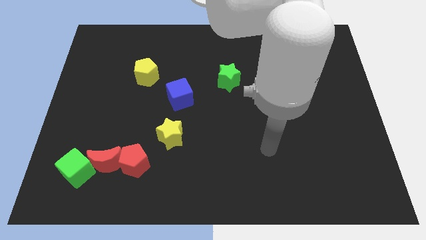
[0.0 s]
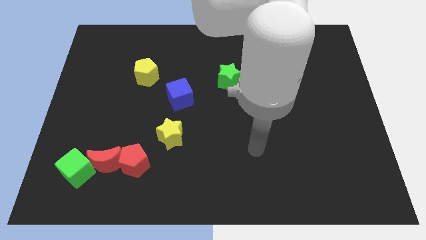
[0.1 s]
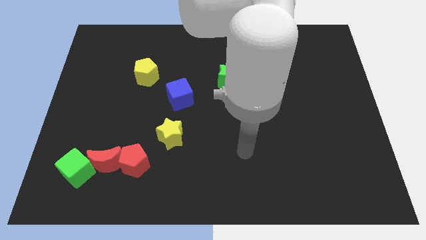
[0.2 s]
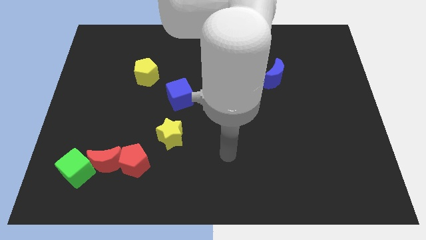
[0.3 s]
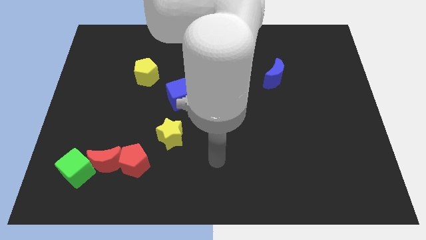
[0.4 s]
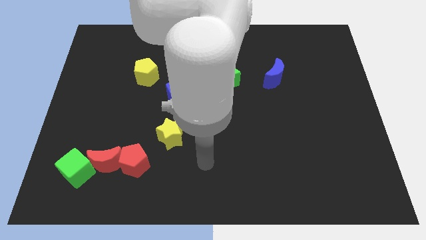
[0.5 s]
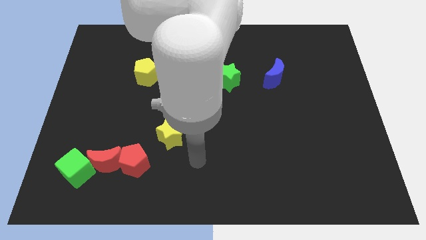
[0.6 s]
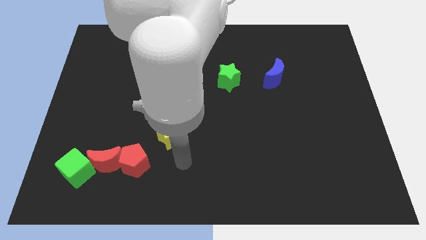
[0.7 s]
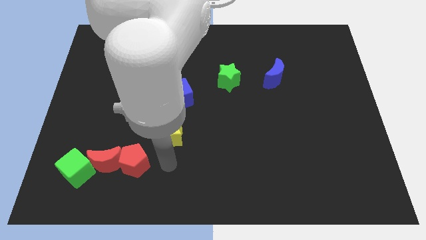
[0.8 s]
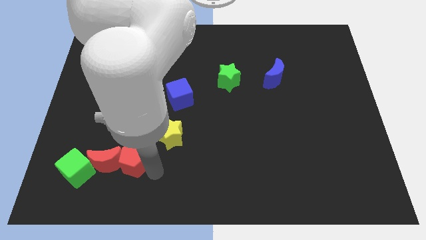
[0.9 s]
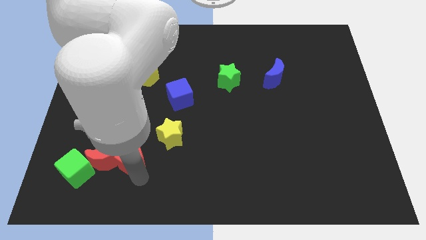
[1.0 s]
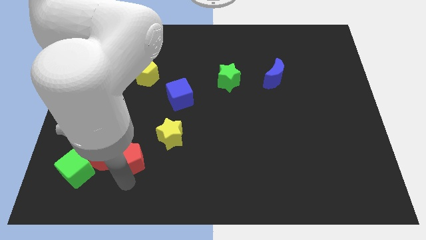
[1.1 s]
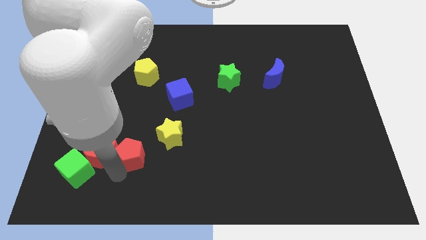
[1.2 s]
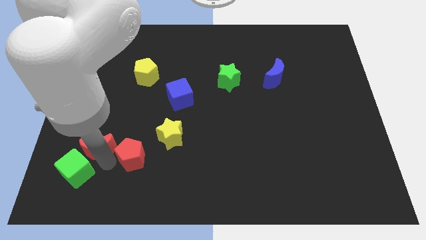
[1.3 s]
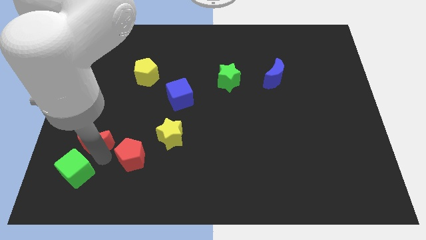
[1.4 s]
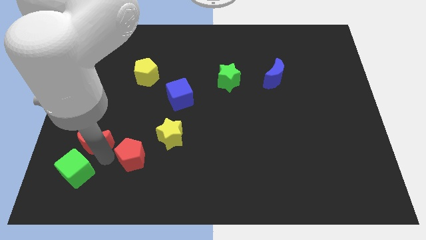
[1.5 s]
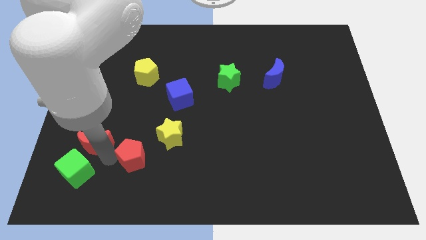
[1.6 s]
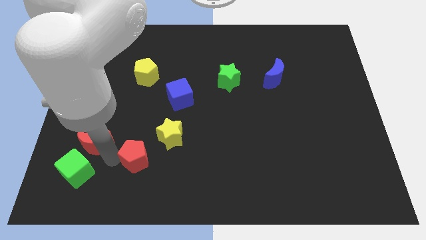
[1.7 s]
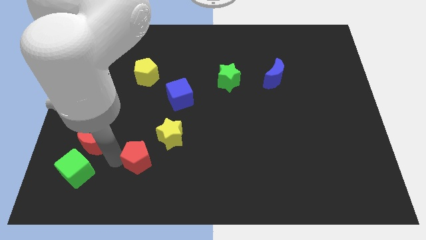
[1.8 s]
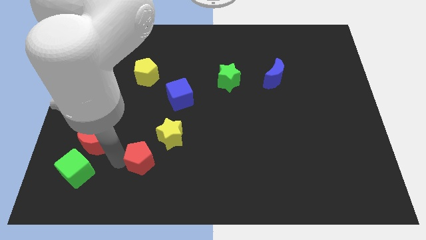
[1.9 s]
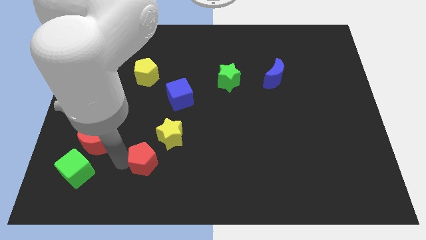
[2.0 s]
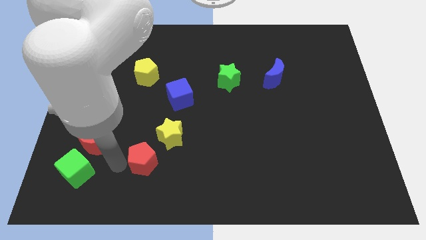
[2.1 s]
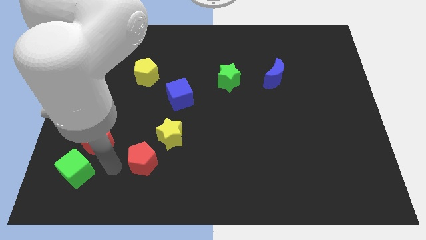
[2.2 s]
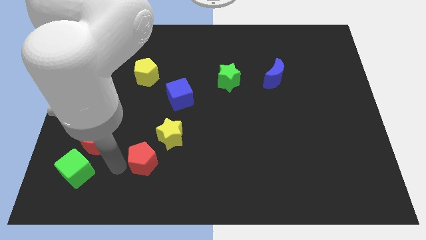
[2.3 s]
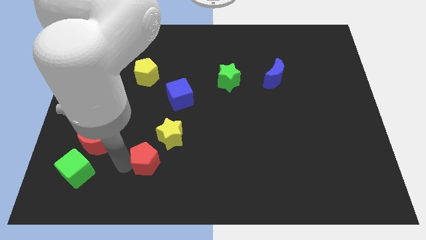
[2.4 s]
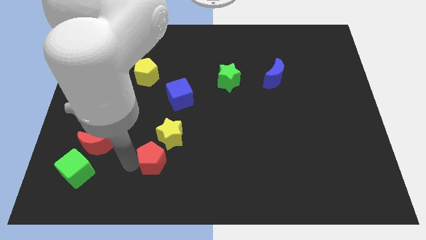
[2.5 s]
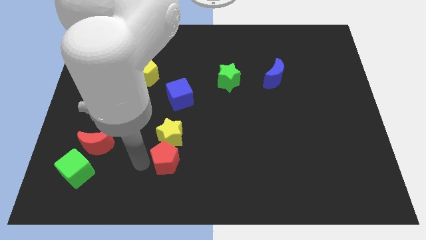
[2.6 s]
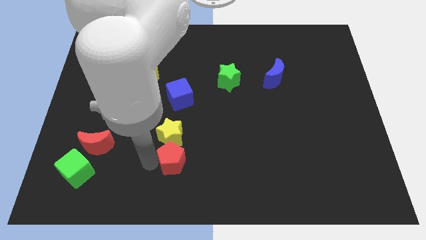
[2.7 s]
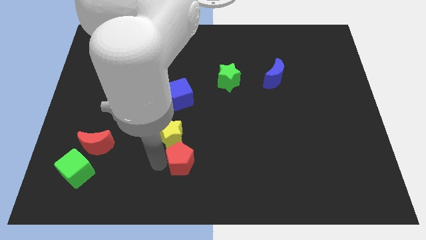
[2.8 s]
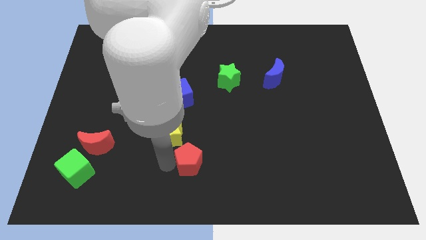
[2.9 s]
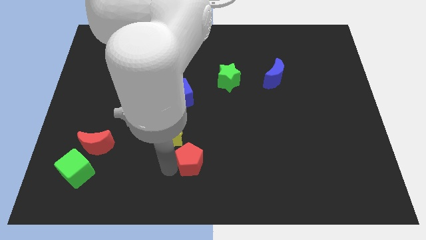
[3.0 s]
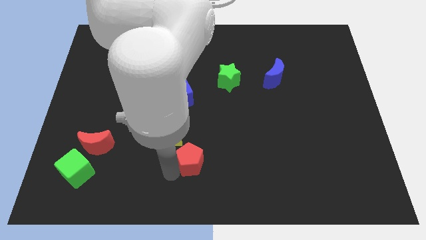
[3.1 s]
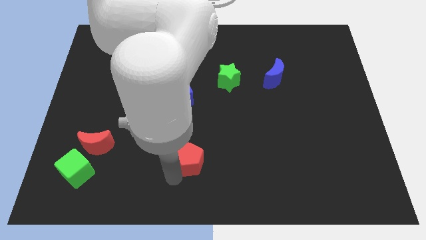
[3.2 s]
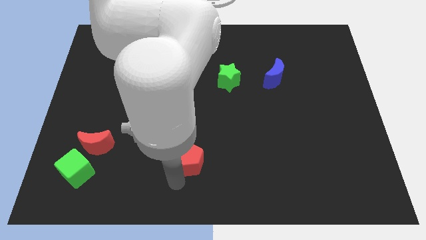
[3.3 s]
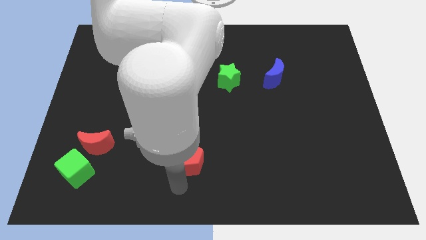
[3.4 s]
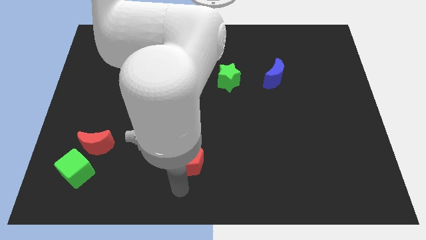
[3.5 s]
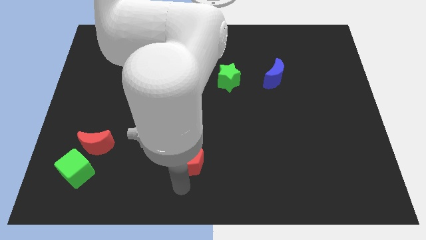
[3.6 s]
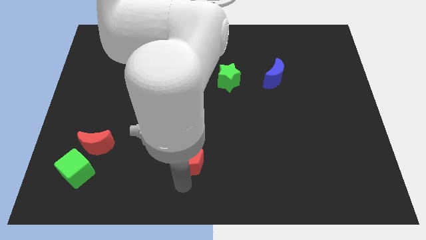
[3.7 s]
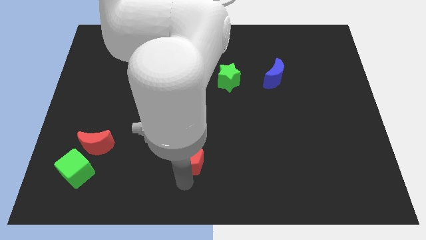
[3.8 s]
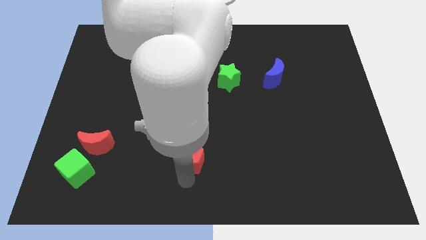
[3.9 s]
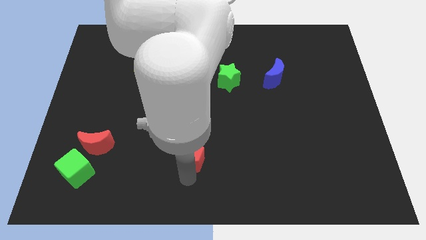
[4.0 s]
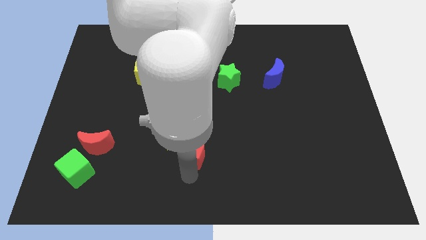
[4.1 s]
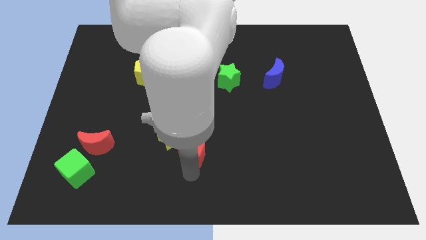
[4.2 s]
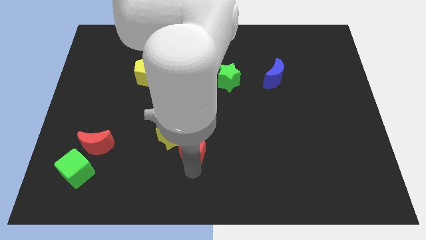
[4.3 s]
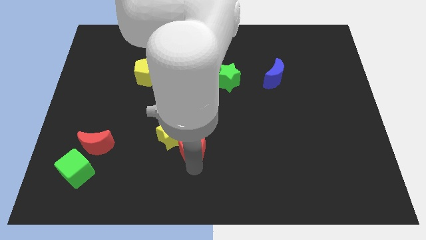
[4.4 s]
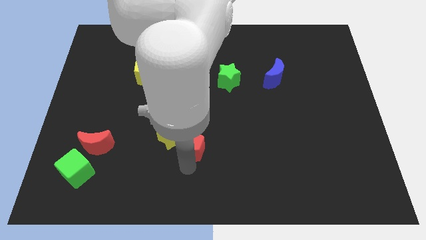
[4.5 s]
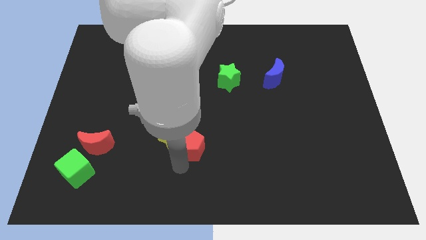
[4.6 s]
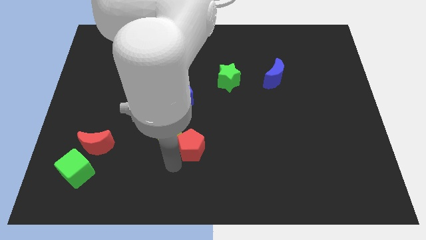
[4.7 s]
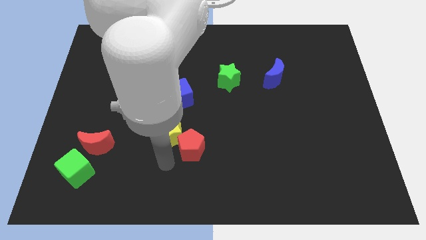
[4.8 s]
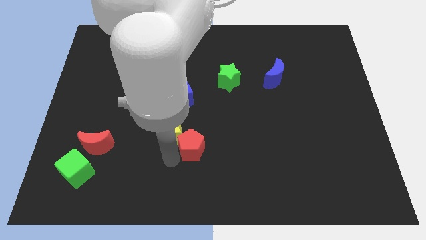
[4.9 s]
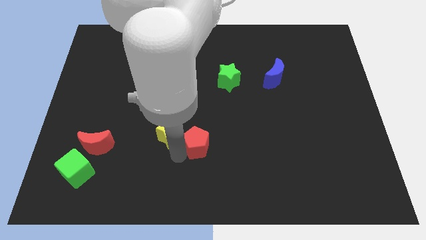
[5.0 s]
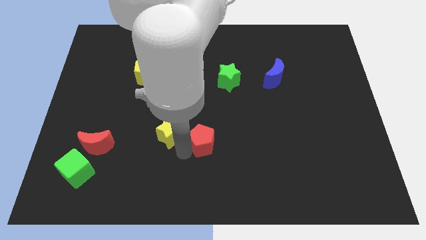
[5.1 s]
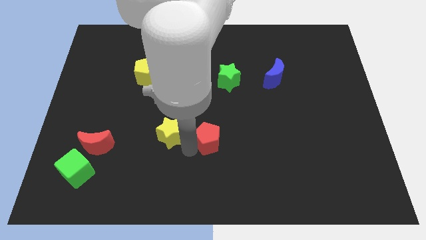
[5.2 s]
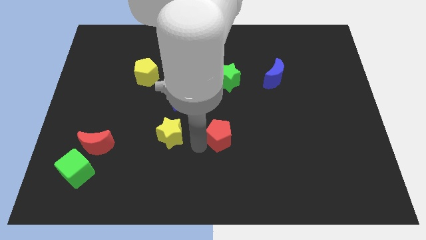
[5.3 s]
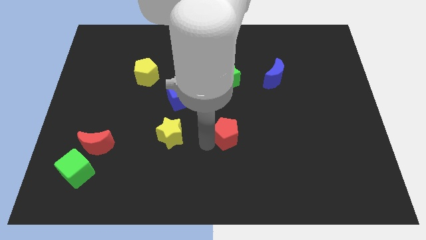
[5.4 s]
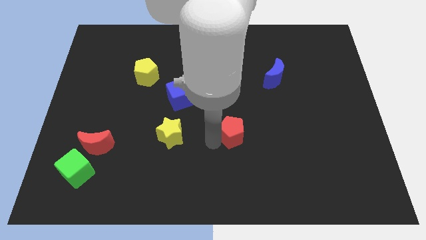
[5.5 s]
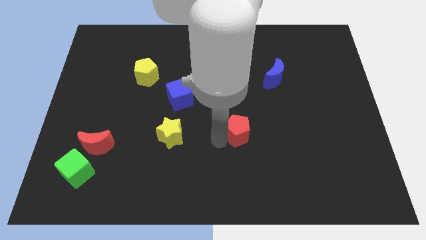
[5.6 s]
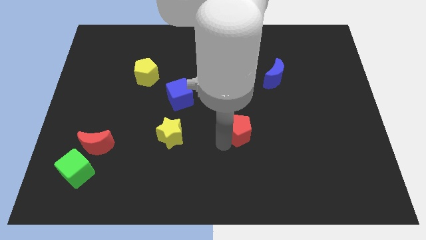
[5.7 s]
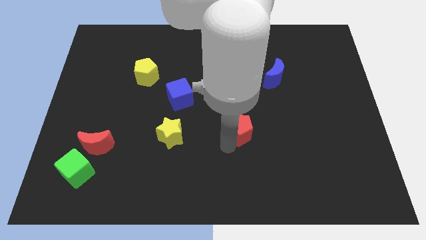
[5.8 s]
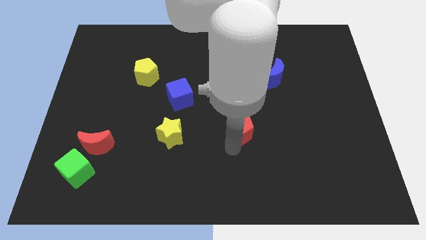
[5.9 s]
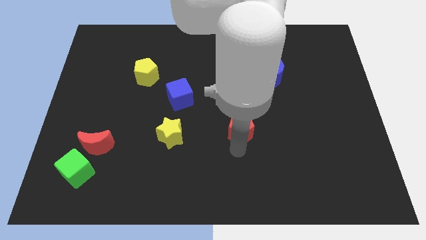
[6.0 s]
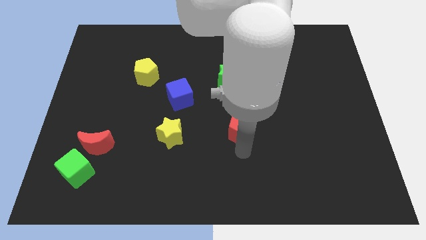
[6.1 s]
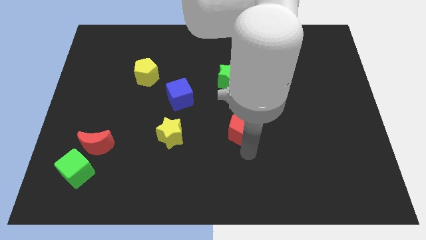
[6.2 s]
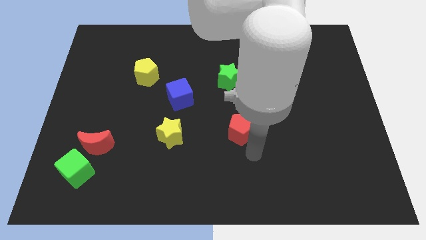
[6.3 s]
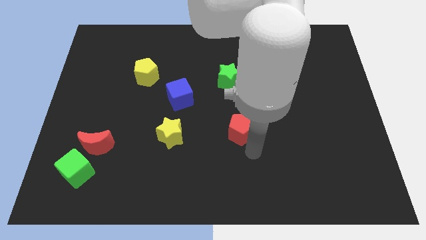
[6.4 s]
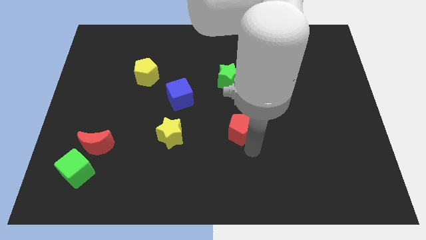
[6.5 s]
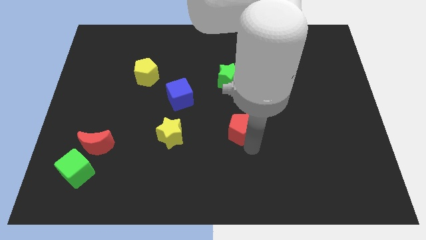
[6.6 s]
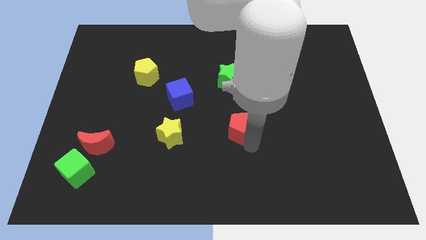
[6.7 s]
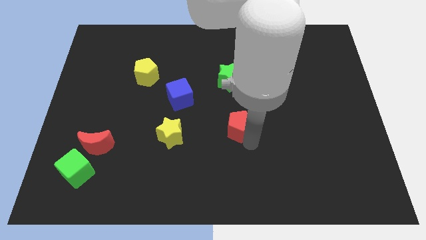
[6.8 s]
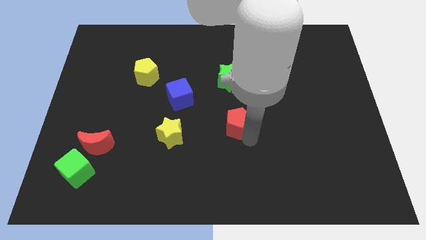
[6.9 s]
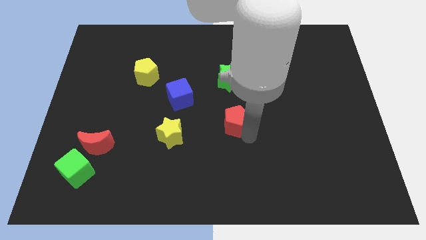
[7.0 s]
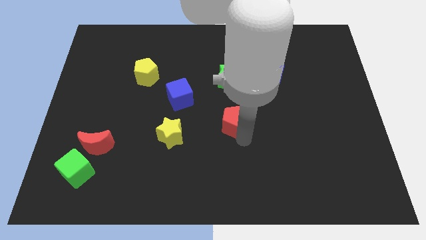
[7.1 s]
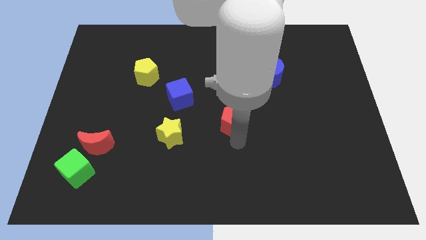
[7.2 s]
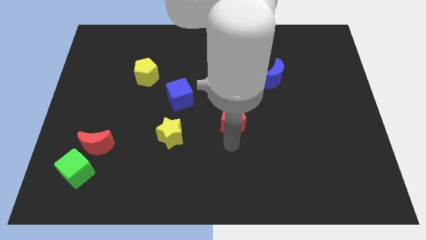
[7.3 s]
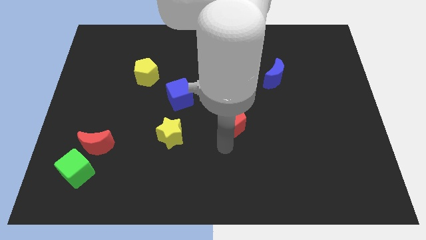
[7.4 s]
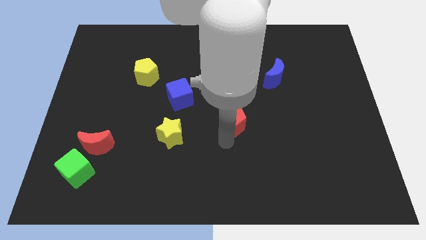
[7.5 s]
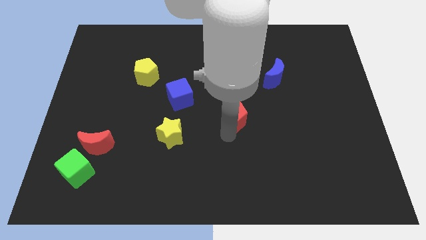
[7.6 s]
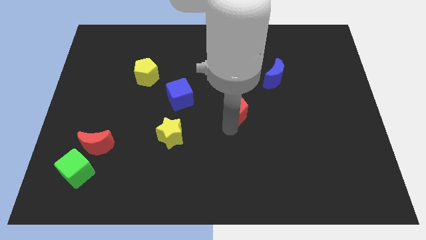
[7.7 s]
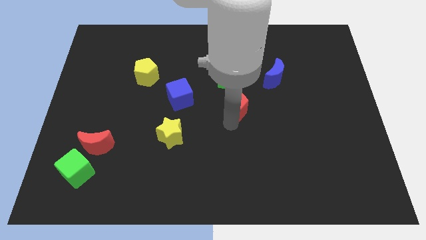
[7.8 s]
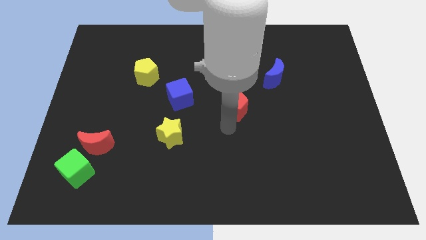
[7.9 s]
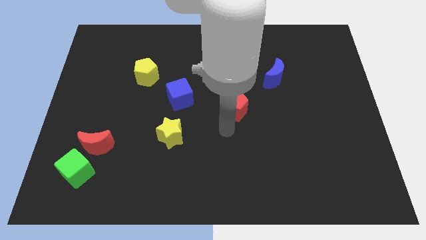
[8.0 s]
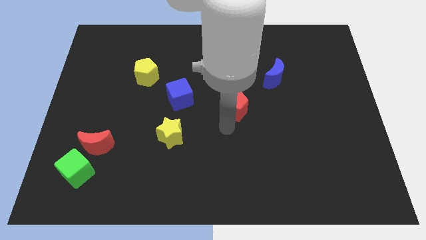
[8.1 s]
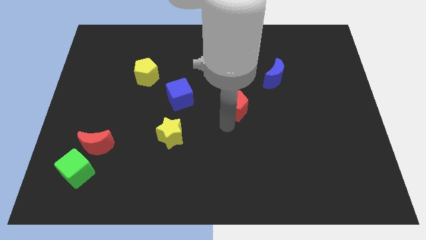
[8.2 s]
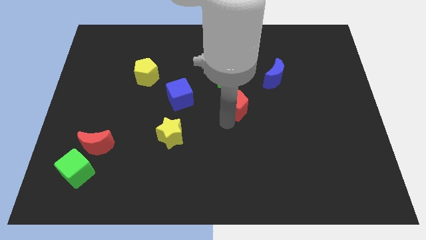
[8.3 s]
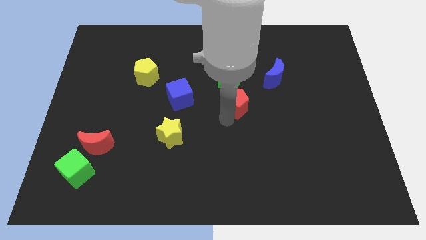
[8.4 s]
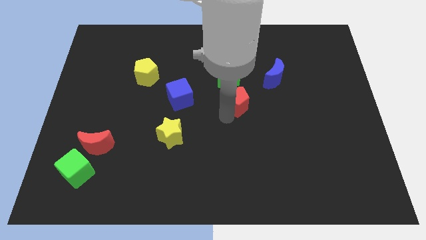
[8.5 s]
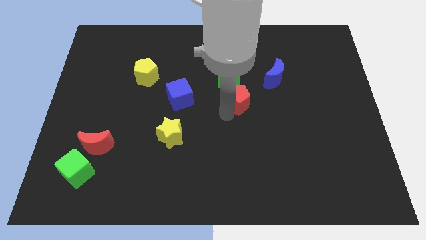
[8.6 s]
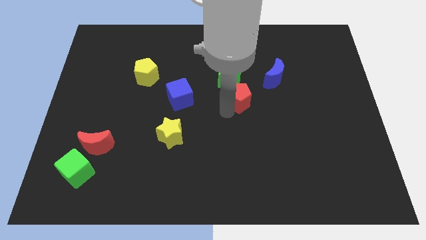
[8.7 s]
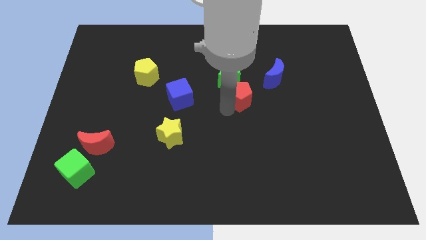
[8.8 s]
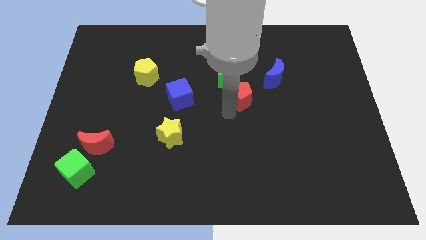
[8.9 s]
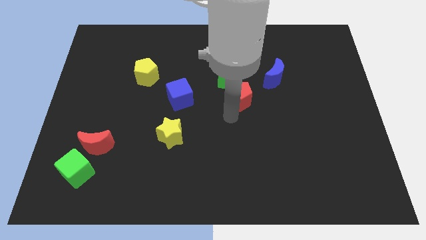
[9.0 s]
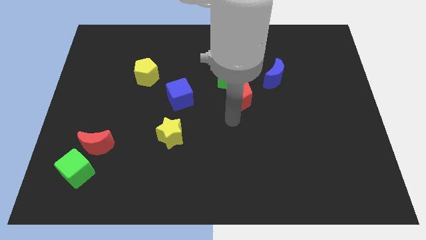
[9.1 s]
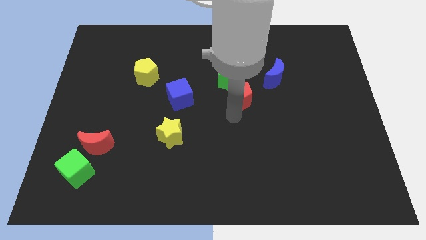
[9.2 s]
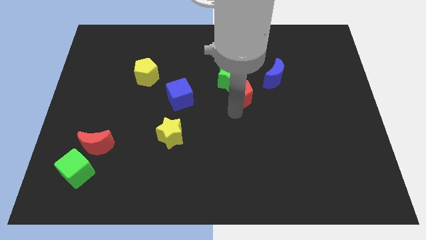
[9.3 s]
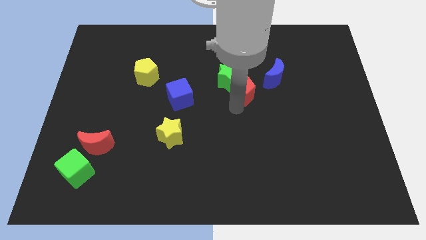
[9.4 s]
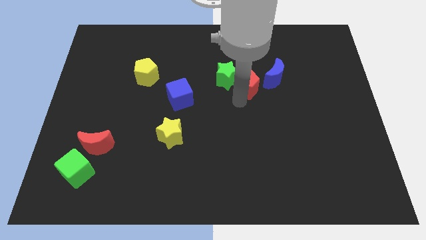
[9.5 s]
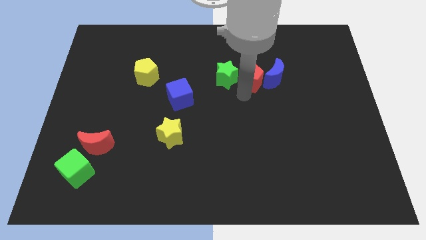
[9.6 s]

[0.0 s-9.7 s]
push the red pentagon to the top right of the green star
